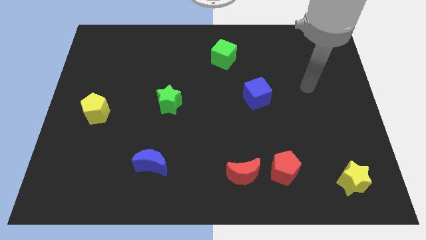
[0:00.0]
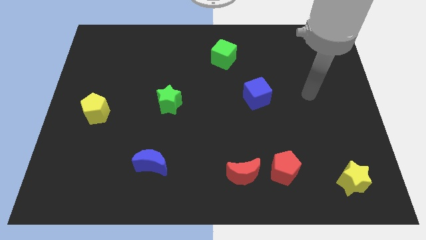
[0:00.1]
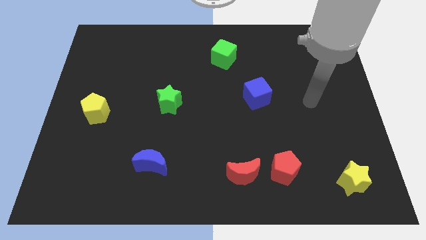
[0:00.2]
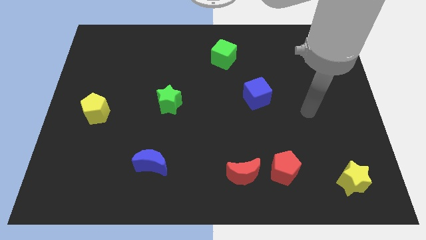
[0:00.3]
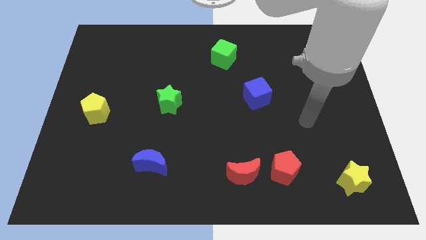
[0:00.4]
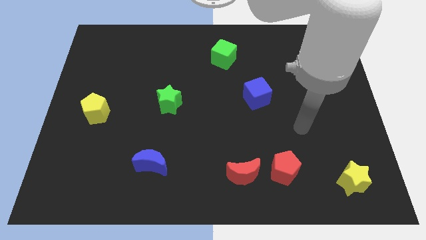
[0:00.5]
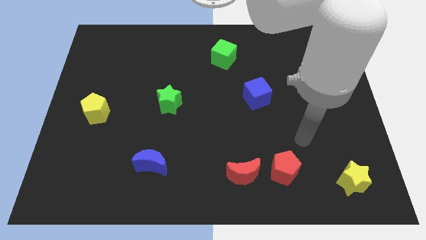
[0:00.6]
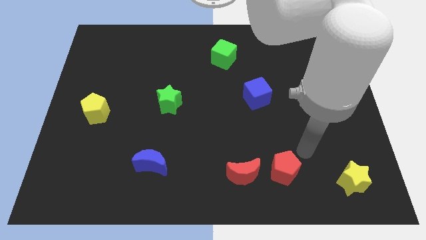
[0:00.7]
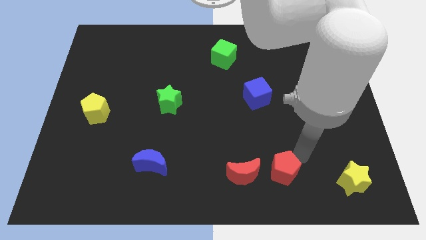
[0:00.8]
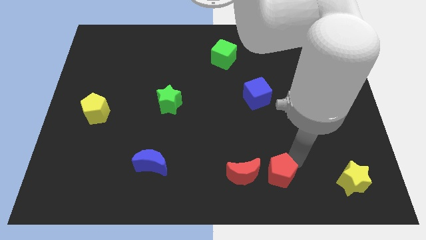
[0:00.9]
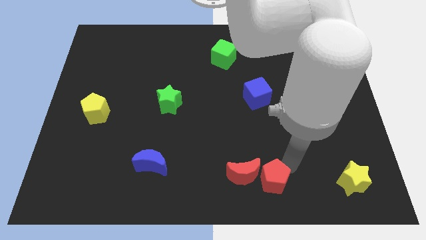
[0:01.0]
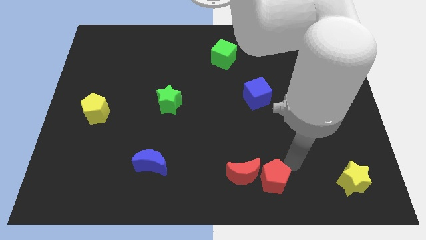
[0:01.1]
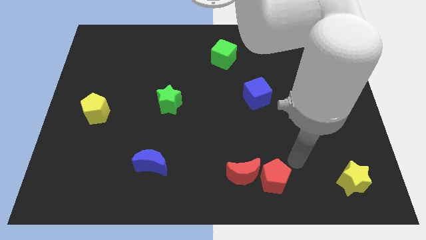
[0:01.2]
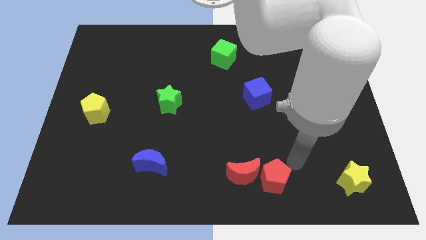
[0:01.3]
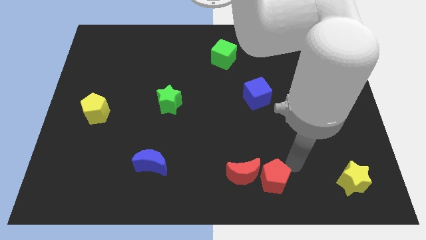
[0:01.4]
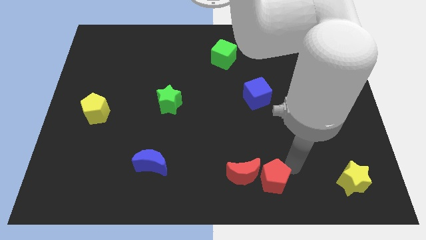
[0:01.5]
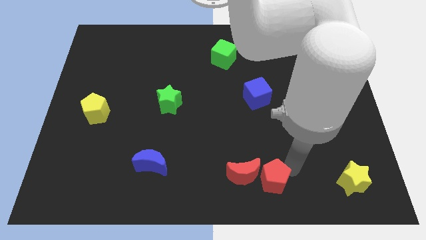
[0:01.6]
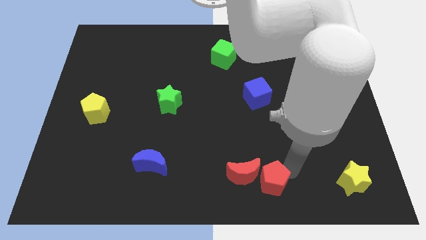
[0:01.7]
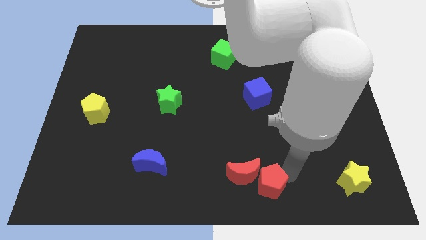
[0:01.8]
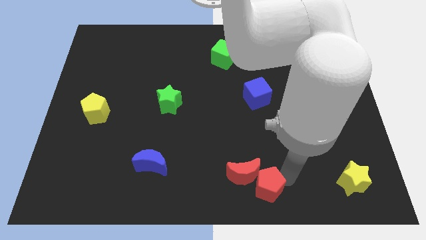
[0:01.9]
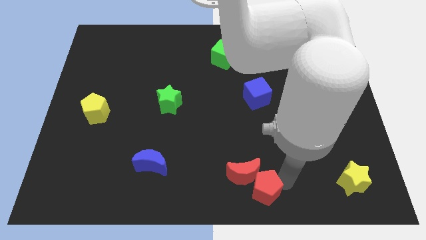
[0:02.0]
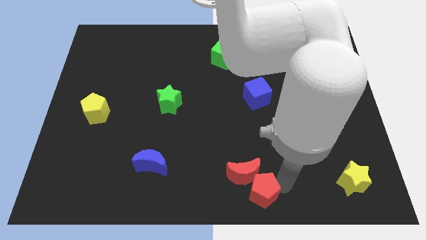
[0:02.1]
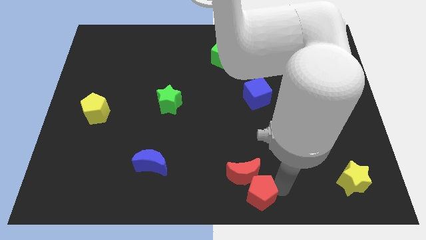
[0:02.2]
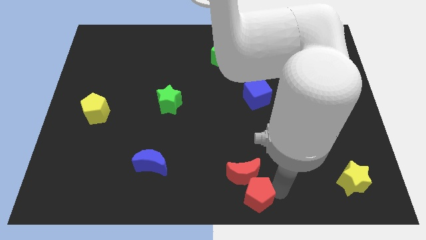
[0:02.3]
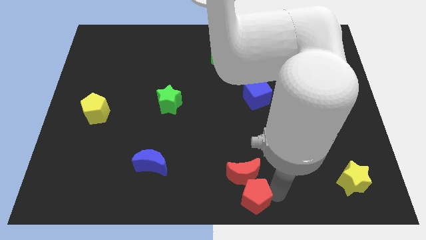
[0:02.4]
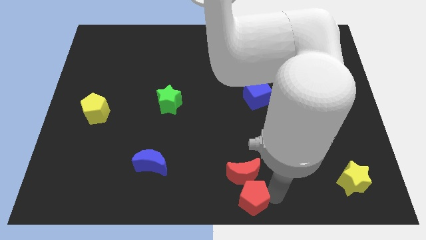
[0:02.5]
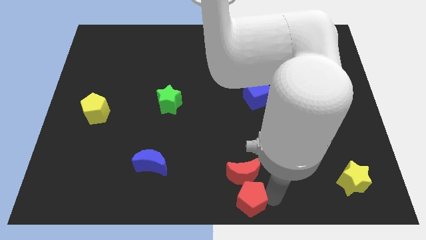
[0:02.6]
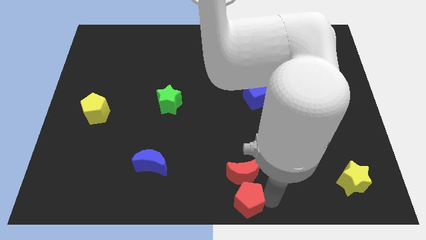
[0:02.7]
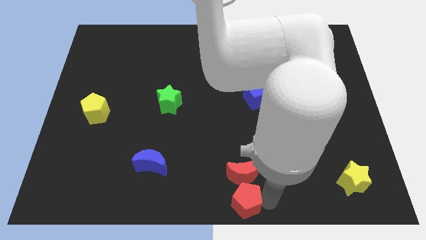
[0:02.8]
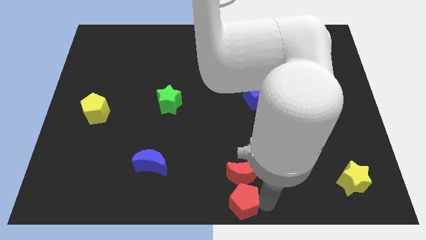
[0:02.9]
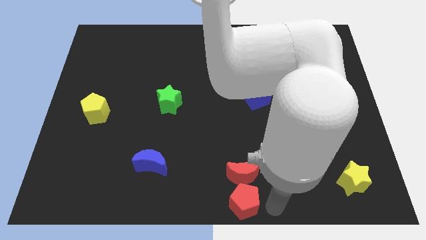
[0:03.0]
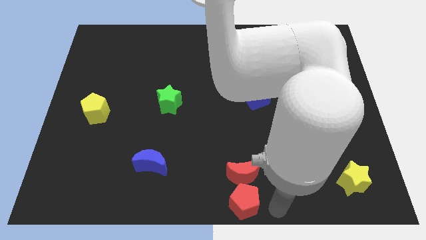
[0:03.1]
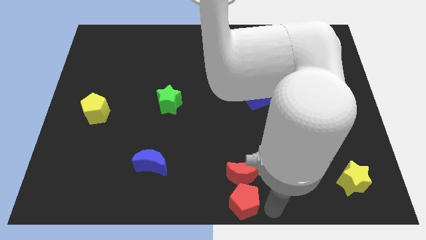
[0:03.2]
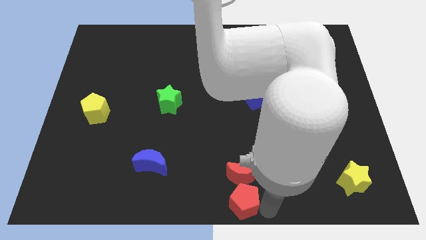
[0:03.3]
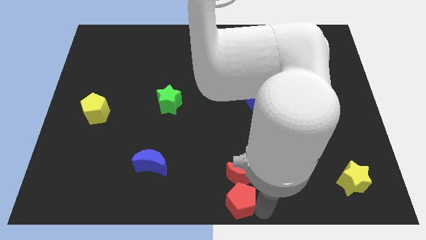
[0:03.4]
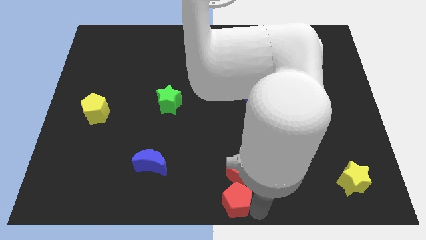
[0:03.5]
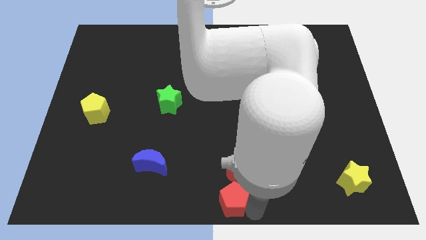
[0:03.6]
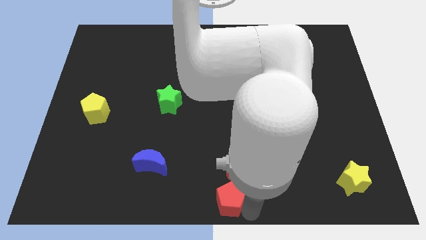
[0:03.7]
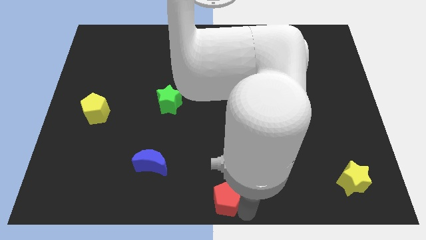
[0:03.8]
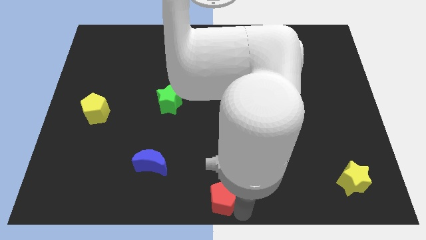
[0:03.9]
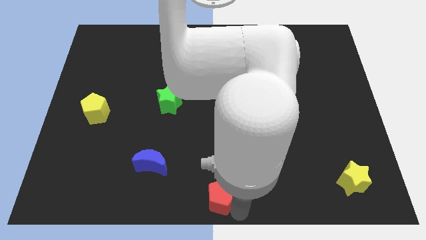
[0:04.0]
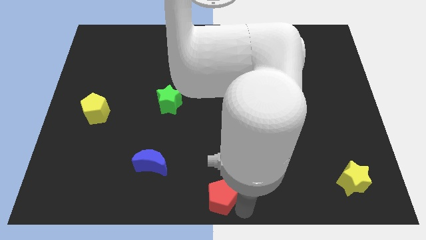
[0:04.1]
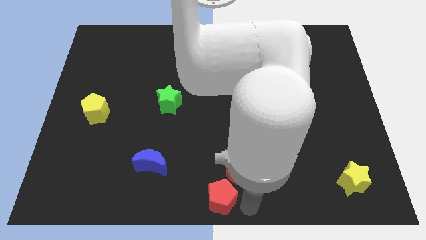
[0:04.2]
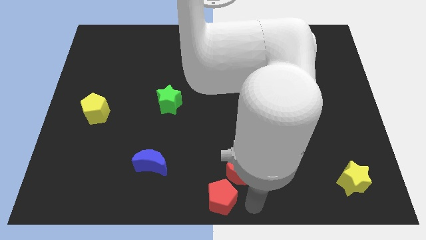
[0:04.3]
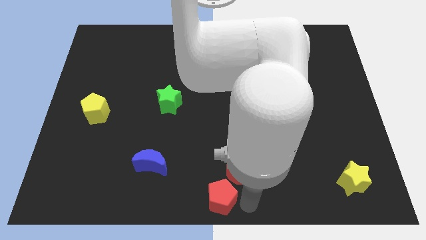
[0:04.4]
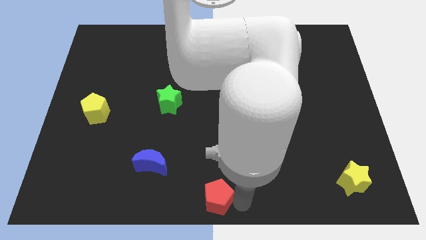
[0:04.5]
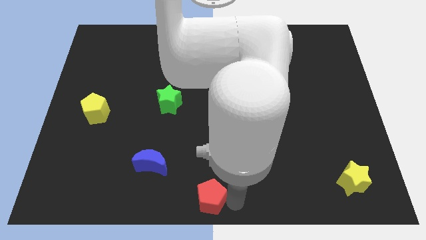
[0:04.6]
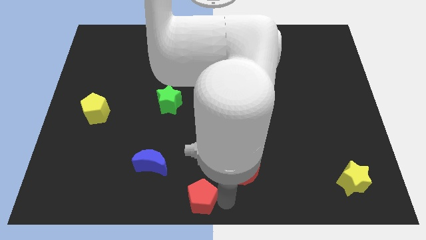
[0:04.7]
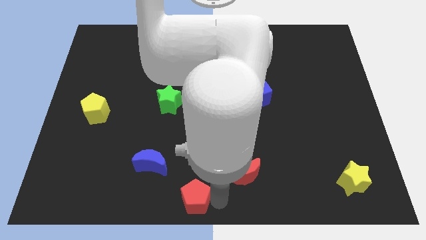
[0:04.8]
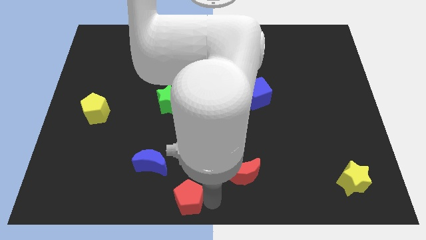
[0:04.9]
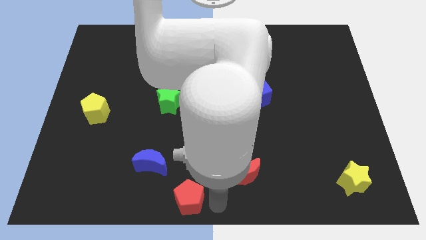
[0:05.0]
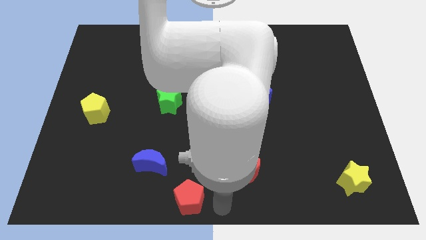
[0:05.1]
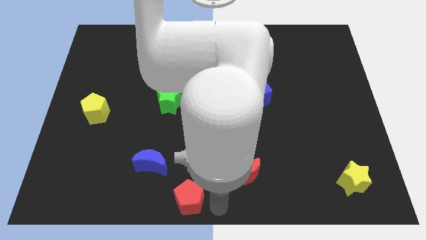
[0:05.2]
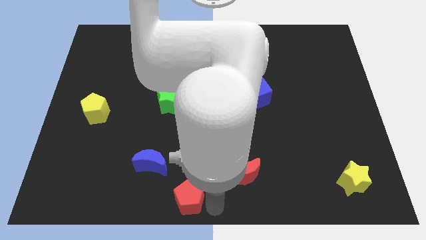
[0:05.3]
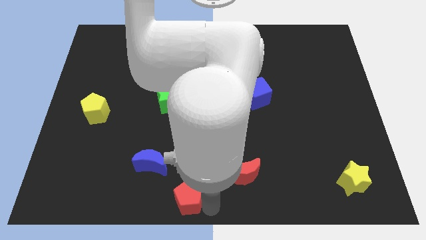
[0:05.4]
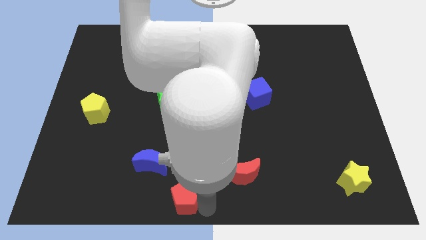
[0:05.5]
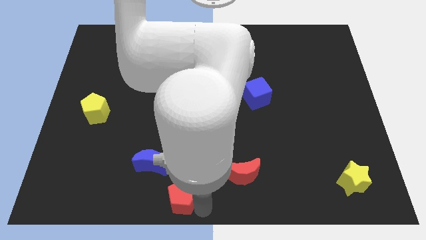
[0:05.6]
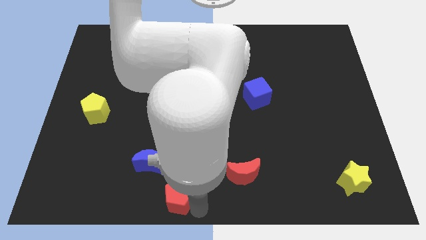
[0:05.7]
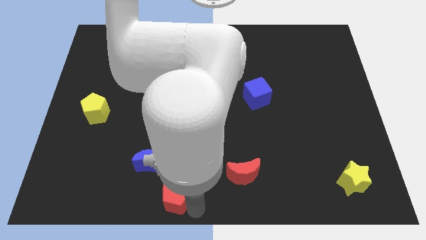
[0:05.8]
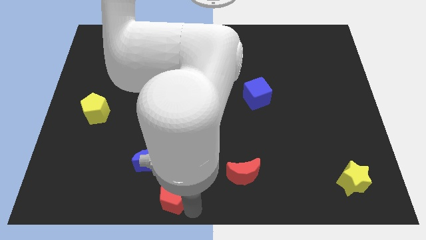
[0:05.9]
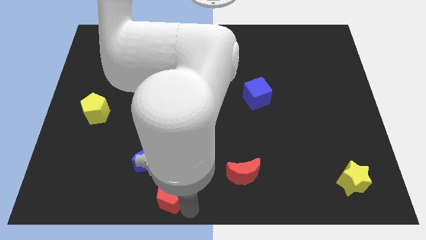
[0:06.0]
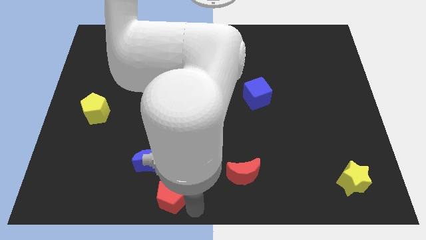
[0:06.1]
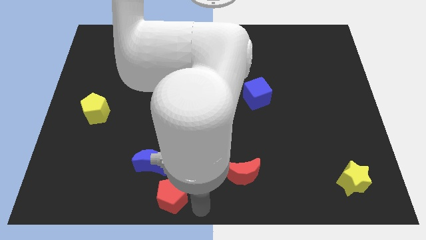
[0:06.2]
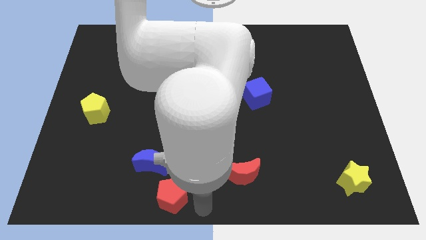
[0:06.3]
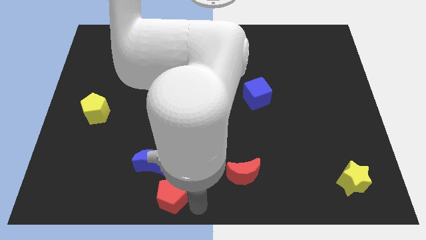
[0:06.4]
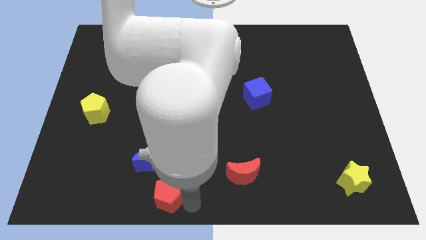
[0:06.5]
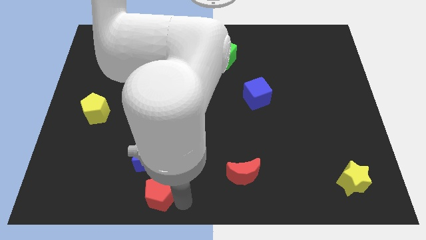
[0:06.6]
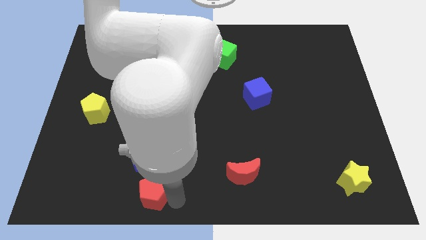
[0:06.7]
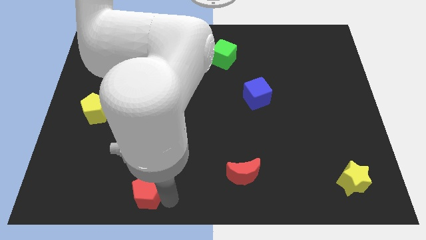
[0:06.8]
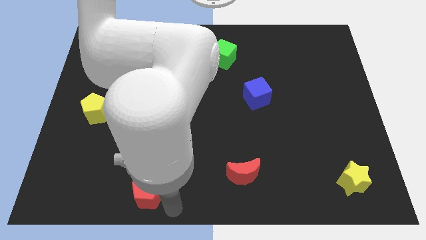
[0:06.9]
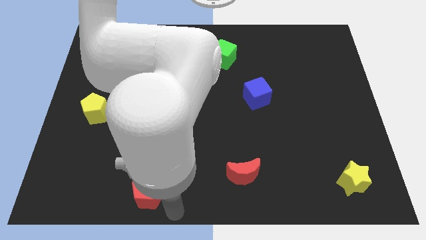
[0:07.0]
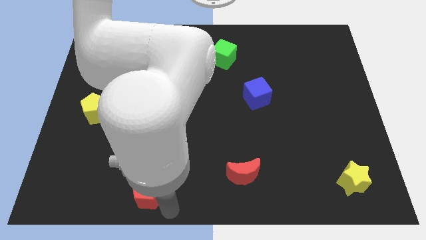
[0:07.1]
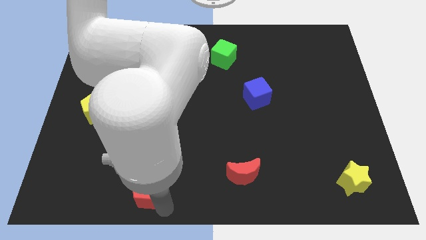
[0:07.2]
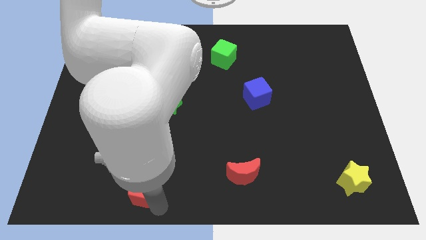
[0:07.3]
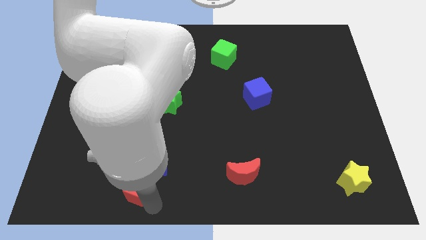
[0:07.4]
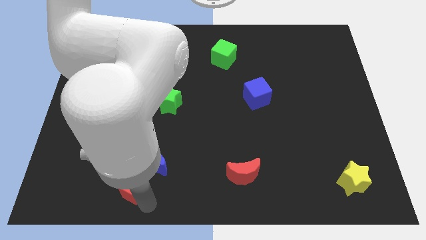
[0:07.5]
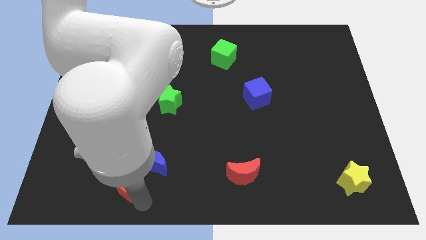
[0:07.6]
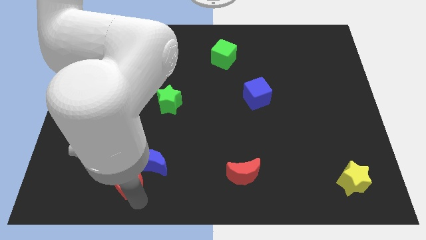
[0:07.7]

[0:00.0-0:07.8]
move the red pentagon left of the blue moon
